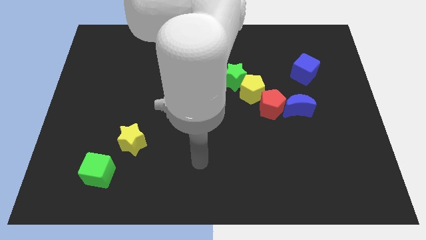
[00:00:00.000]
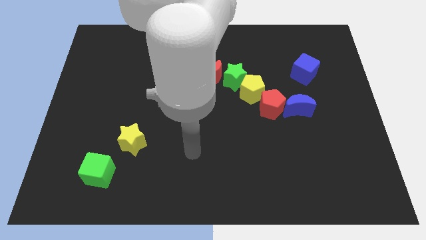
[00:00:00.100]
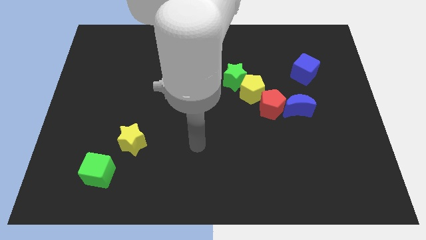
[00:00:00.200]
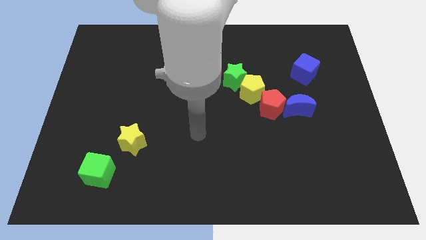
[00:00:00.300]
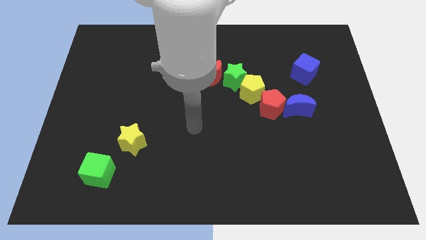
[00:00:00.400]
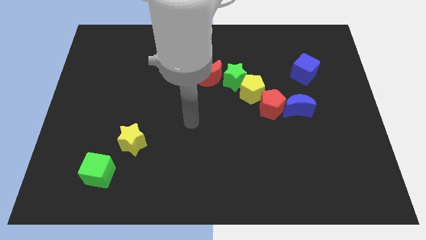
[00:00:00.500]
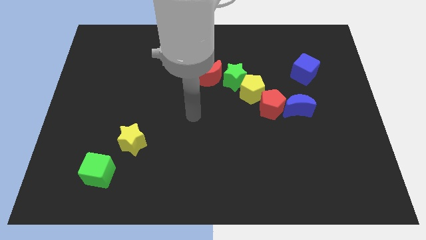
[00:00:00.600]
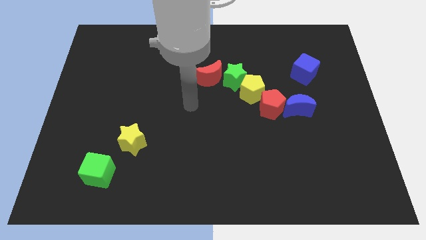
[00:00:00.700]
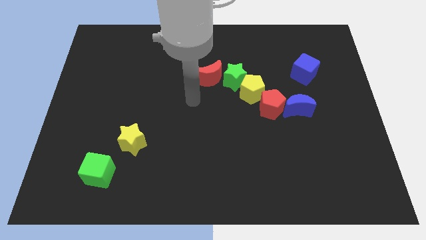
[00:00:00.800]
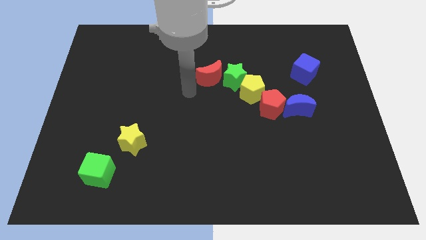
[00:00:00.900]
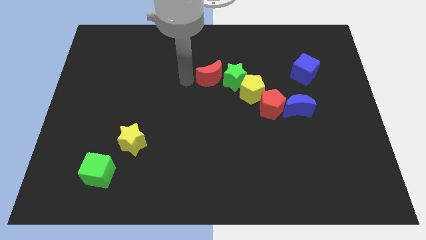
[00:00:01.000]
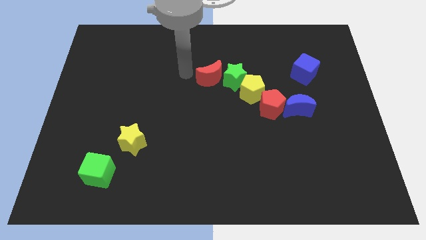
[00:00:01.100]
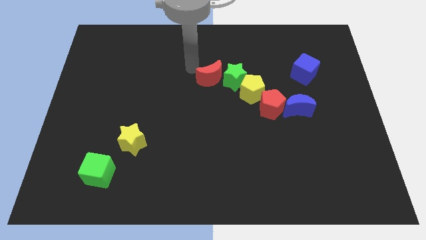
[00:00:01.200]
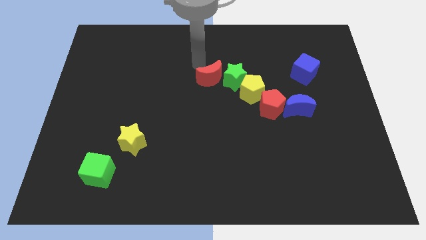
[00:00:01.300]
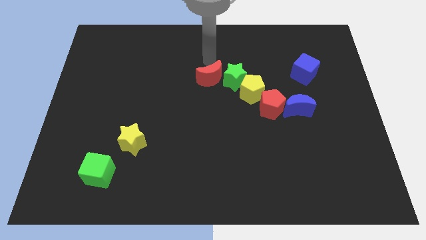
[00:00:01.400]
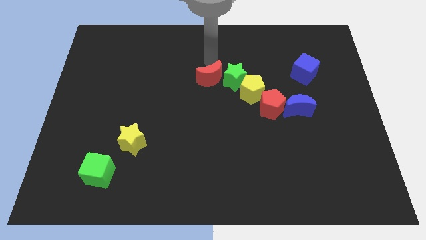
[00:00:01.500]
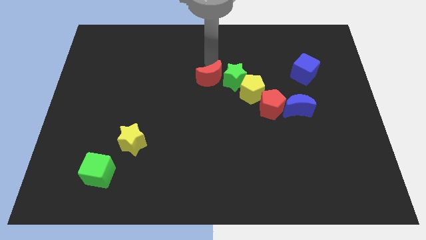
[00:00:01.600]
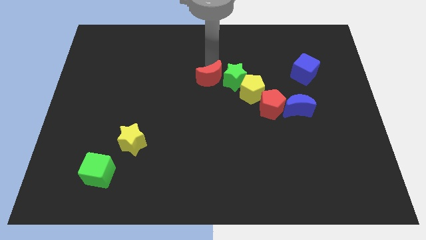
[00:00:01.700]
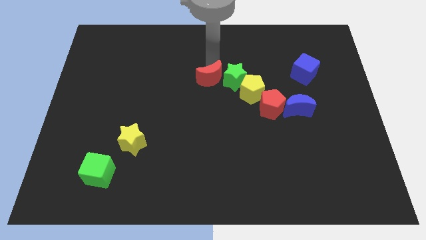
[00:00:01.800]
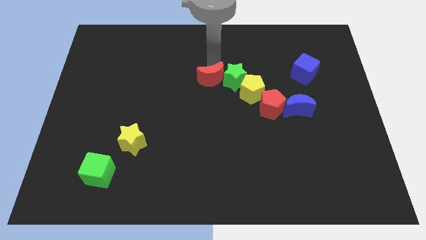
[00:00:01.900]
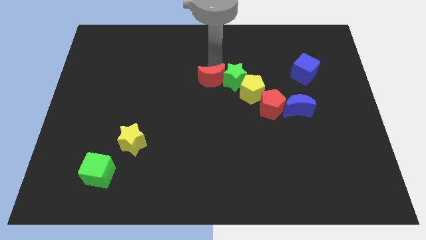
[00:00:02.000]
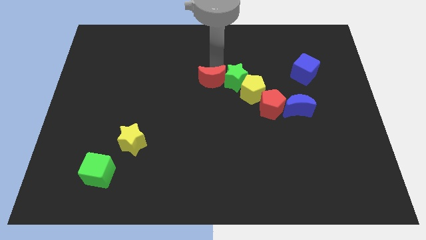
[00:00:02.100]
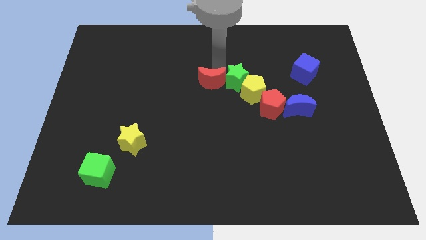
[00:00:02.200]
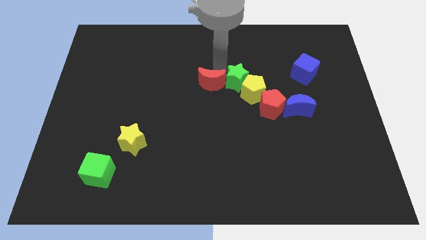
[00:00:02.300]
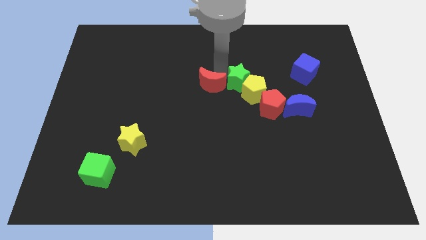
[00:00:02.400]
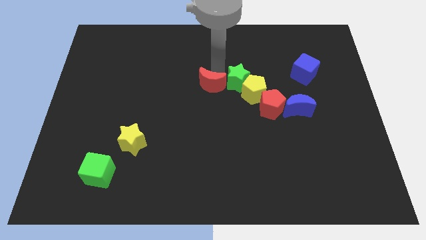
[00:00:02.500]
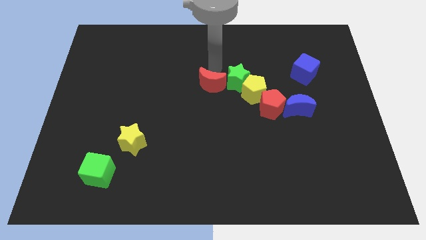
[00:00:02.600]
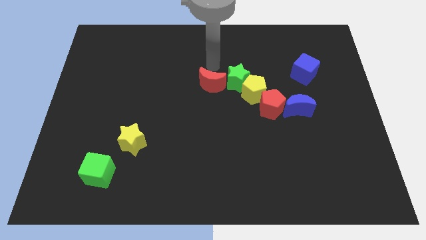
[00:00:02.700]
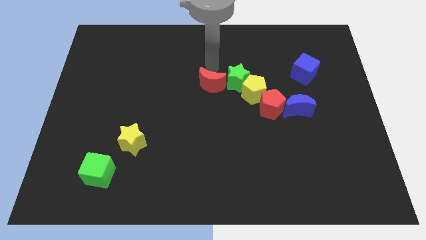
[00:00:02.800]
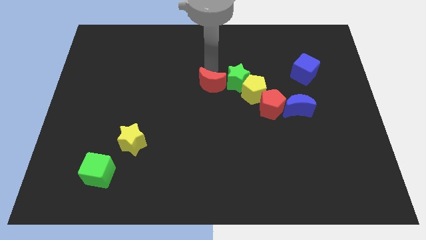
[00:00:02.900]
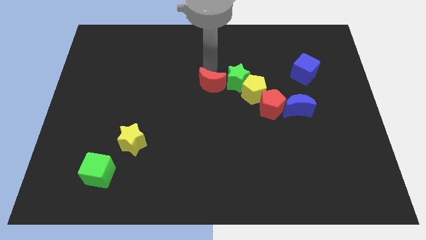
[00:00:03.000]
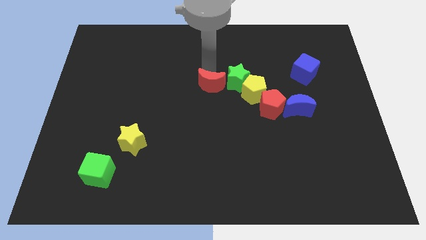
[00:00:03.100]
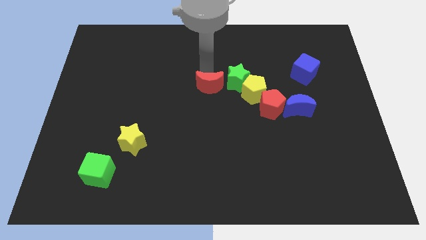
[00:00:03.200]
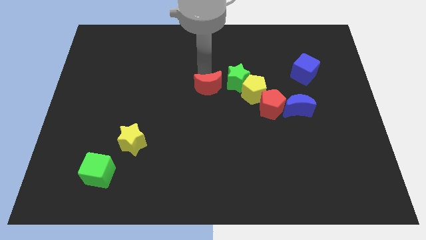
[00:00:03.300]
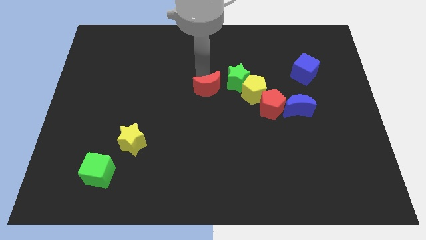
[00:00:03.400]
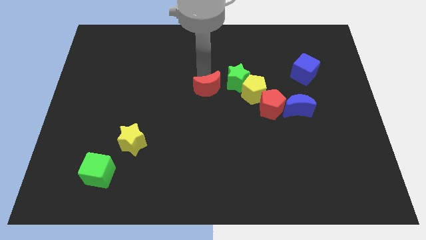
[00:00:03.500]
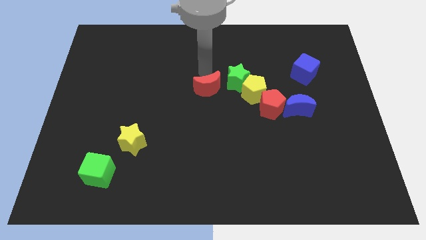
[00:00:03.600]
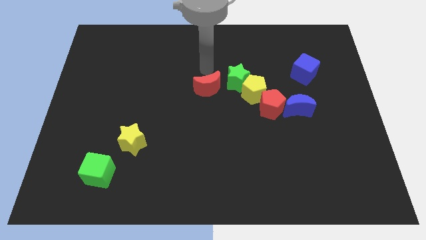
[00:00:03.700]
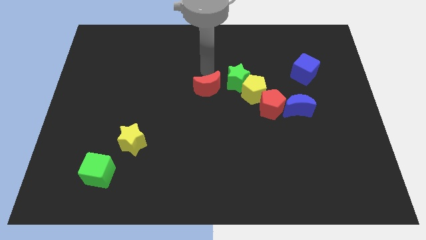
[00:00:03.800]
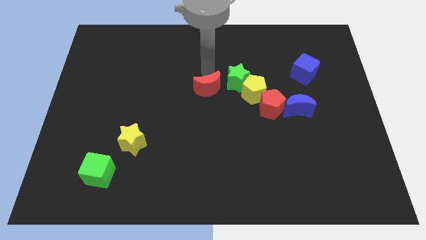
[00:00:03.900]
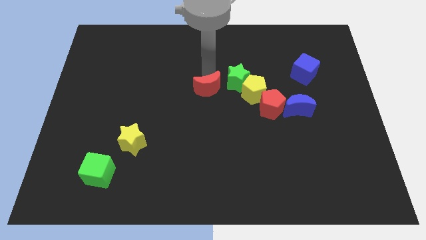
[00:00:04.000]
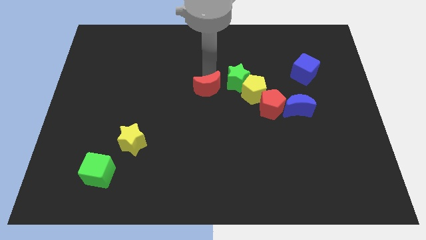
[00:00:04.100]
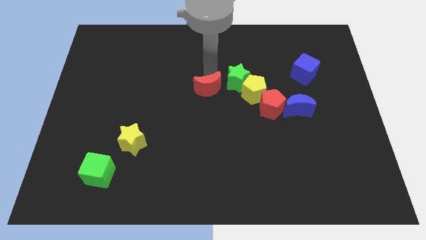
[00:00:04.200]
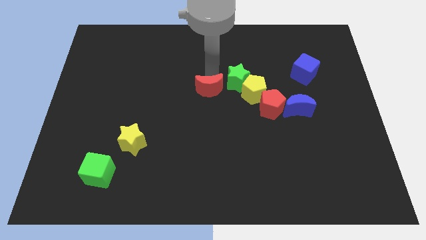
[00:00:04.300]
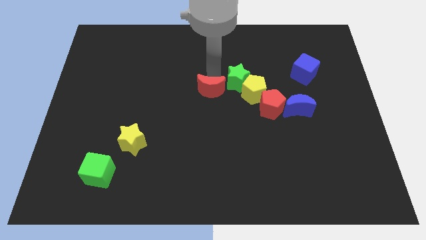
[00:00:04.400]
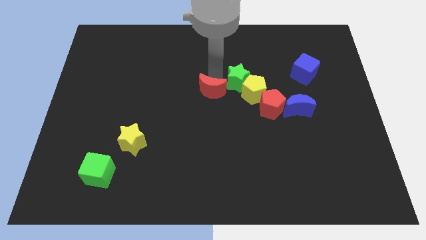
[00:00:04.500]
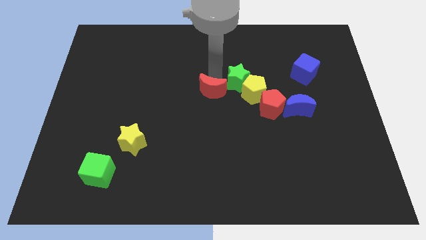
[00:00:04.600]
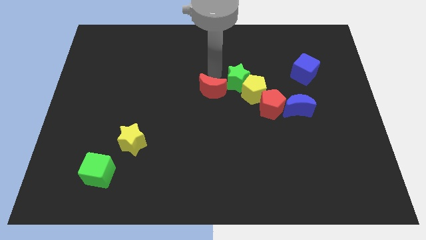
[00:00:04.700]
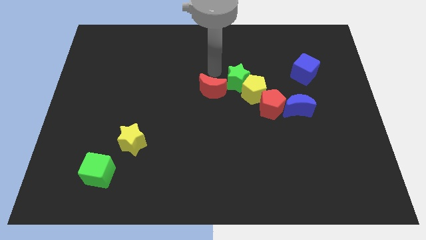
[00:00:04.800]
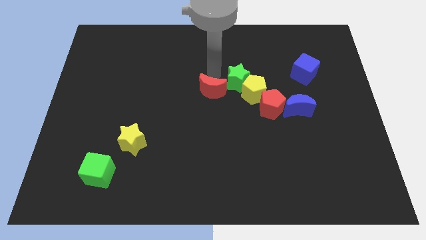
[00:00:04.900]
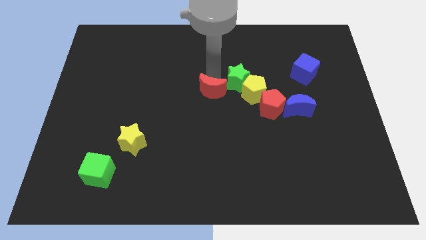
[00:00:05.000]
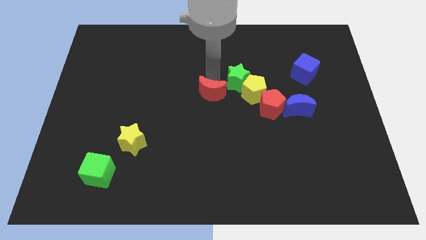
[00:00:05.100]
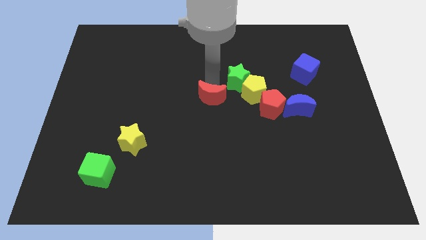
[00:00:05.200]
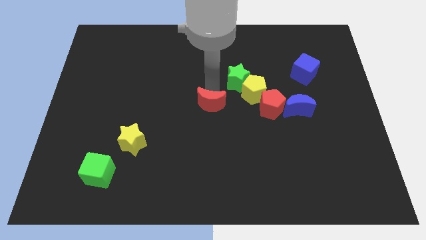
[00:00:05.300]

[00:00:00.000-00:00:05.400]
move the red moon downwards a bit

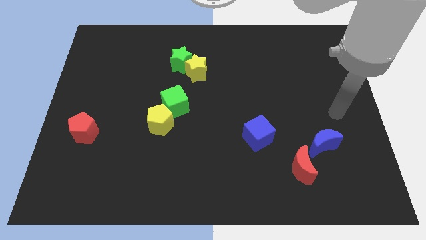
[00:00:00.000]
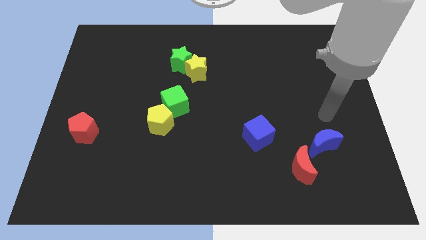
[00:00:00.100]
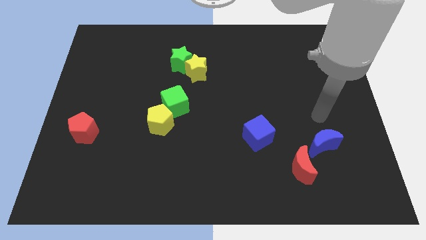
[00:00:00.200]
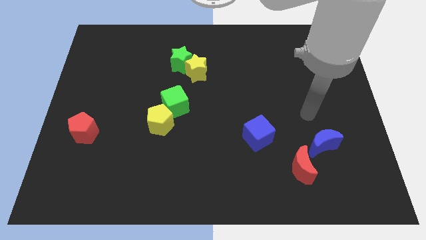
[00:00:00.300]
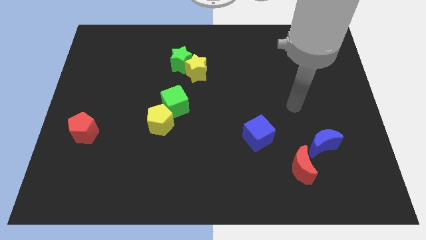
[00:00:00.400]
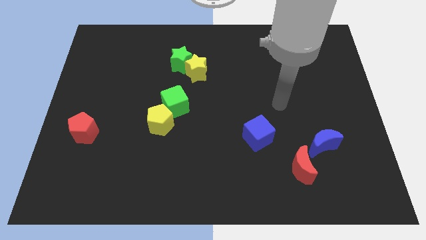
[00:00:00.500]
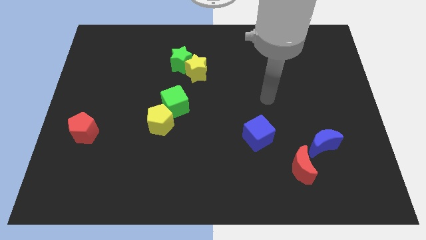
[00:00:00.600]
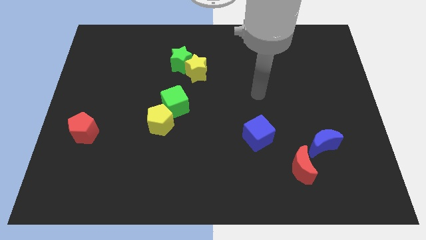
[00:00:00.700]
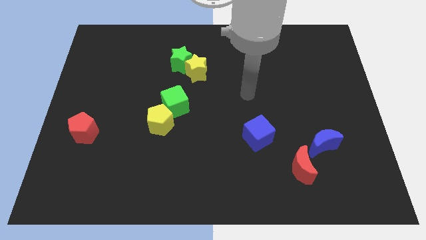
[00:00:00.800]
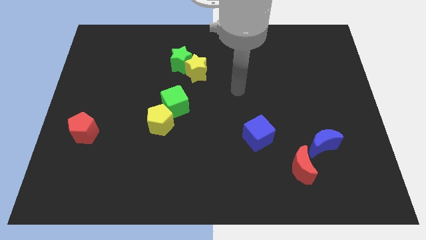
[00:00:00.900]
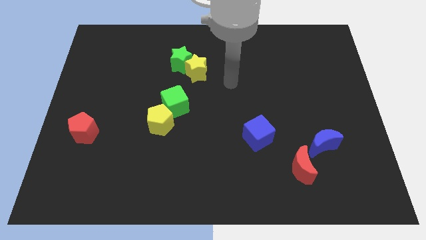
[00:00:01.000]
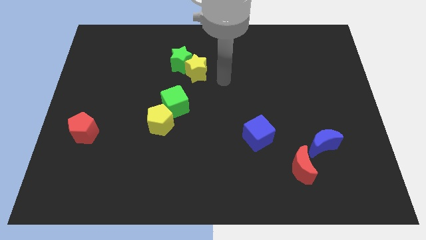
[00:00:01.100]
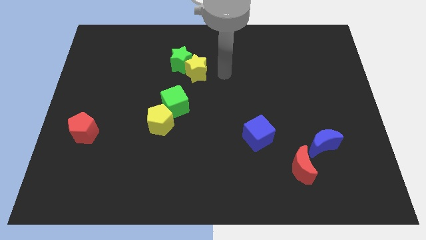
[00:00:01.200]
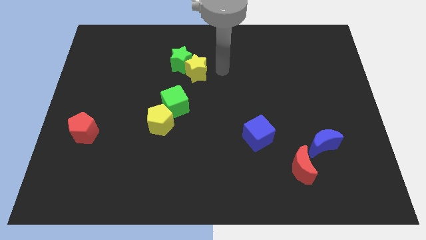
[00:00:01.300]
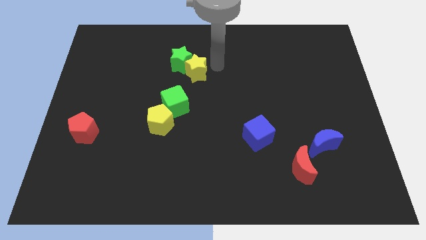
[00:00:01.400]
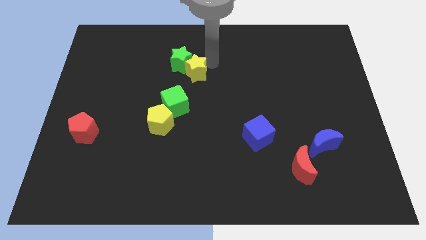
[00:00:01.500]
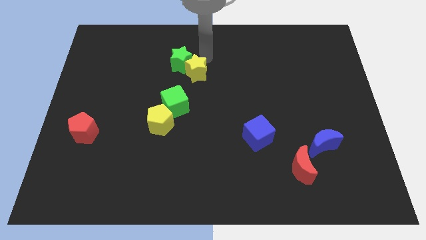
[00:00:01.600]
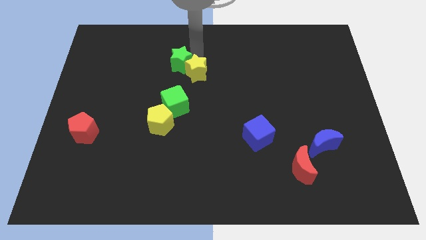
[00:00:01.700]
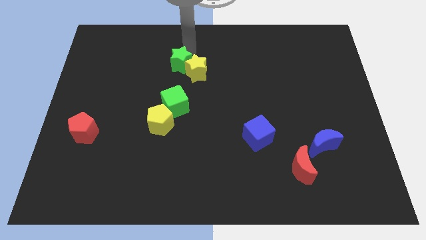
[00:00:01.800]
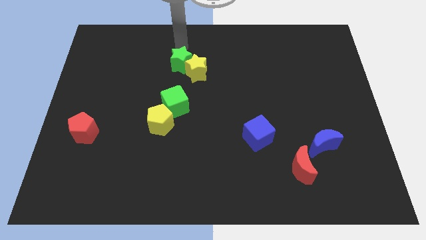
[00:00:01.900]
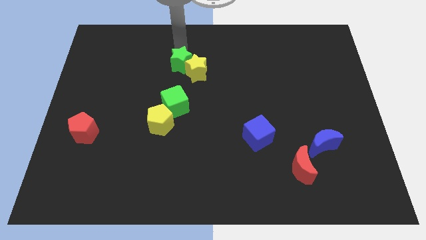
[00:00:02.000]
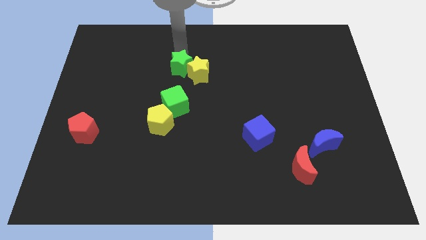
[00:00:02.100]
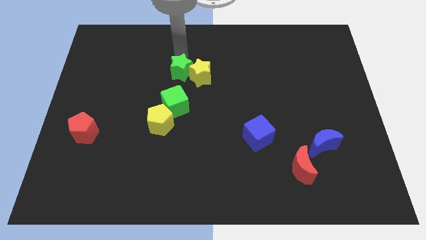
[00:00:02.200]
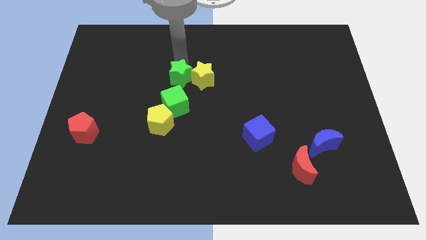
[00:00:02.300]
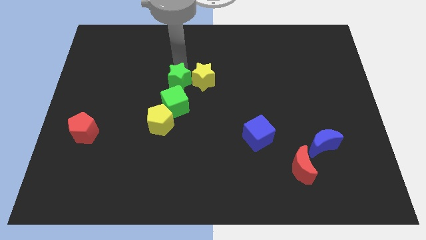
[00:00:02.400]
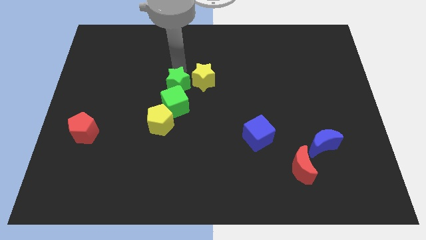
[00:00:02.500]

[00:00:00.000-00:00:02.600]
slightly move the green star down
